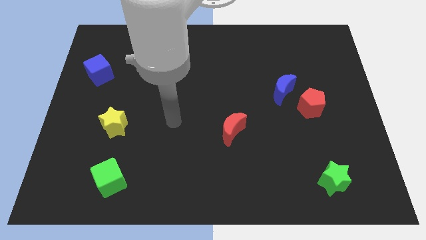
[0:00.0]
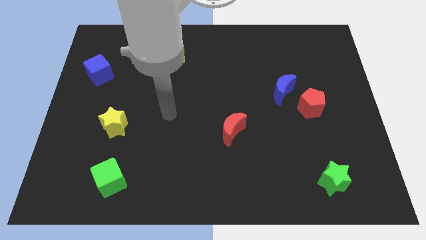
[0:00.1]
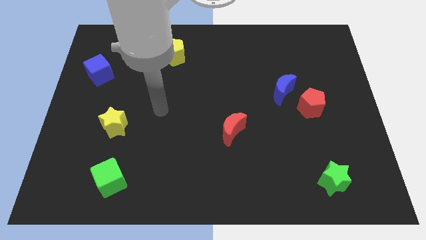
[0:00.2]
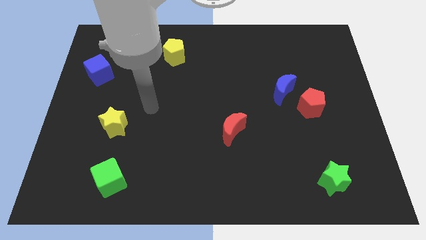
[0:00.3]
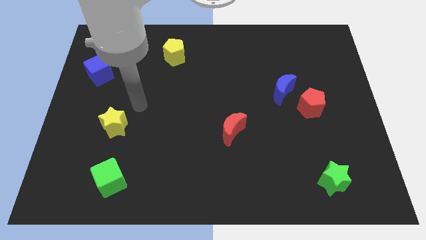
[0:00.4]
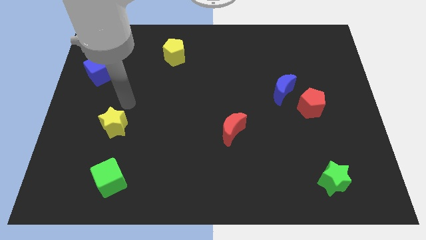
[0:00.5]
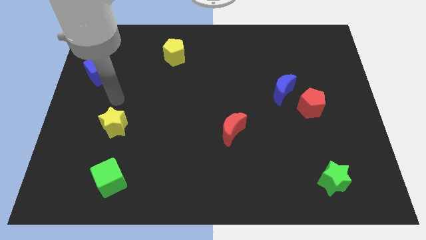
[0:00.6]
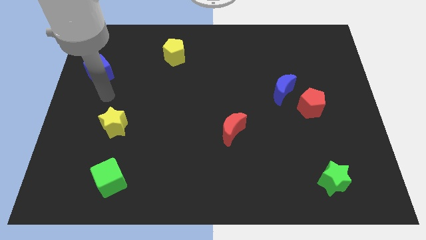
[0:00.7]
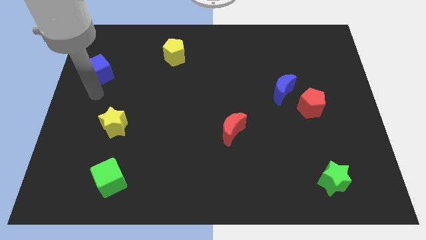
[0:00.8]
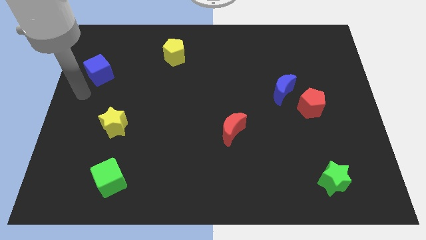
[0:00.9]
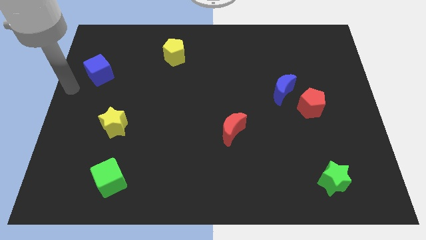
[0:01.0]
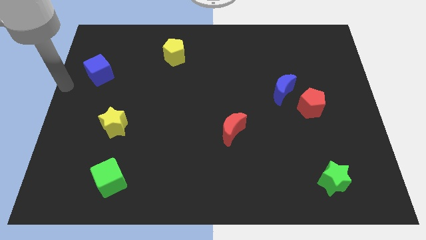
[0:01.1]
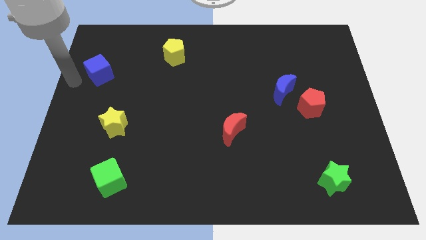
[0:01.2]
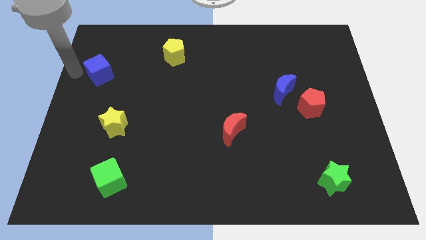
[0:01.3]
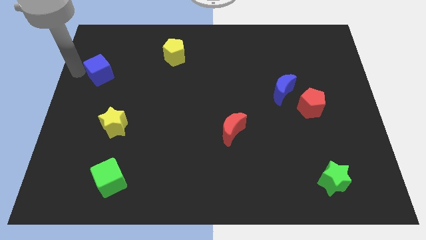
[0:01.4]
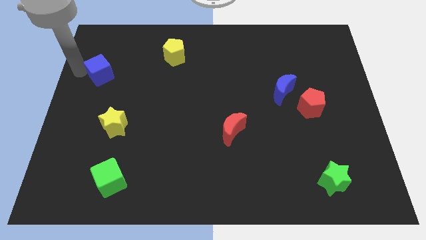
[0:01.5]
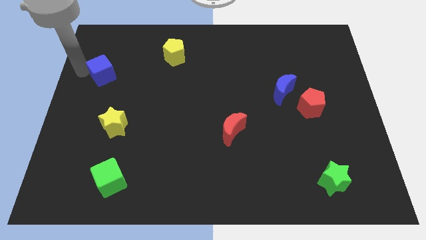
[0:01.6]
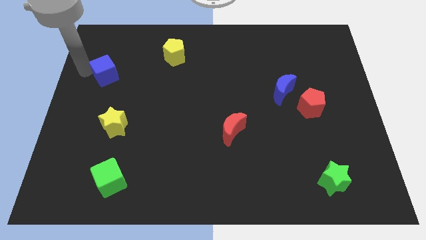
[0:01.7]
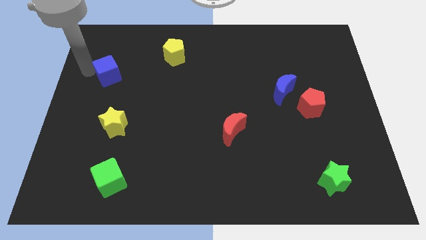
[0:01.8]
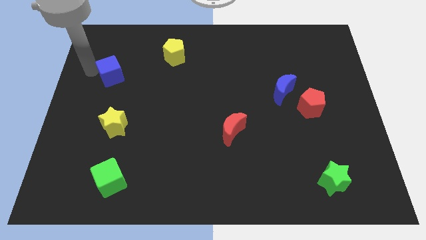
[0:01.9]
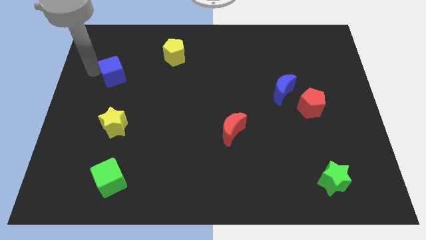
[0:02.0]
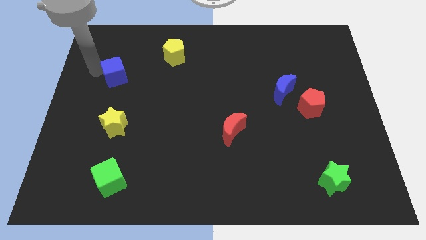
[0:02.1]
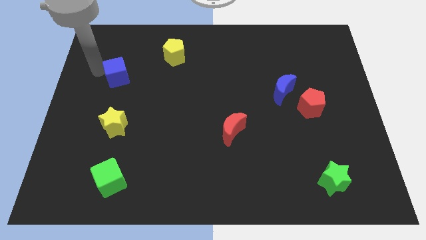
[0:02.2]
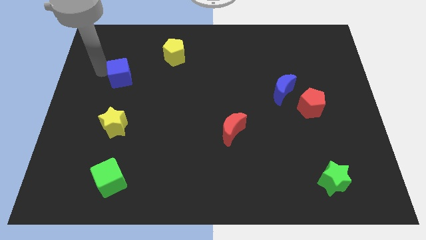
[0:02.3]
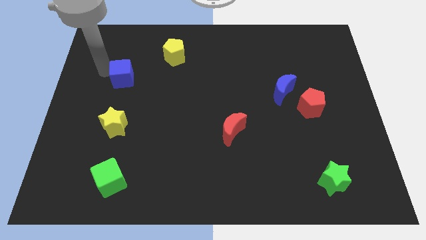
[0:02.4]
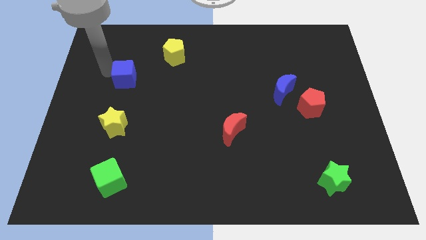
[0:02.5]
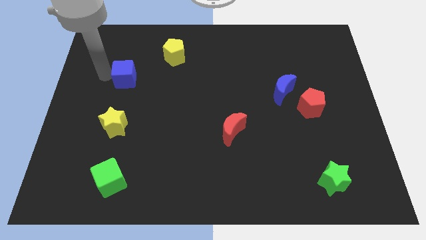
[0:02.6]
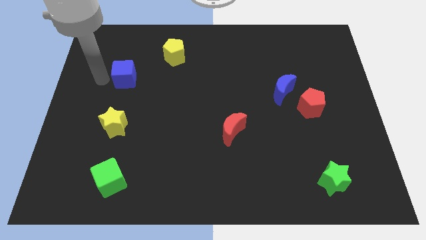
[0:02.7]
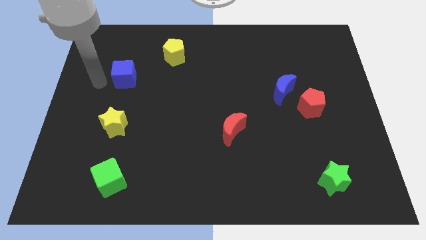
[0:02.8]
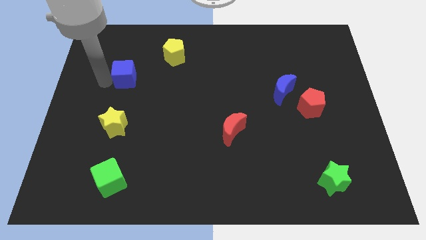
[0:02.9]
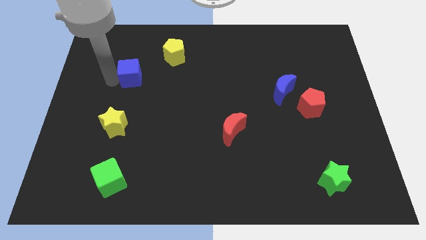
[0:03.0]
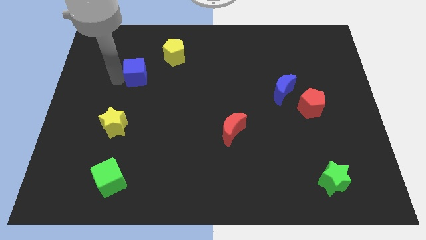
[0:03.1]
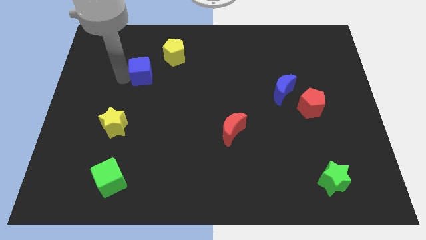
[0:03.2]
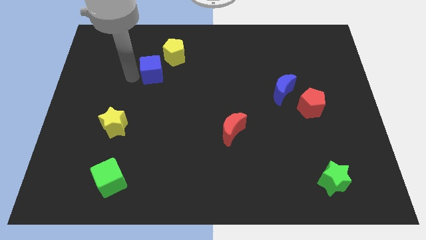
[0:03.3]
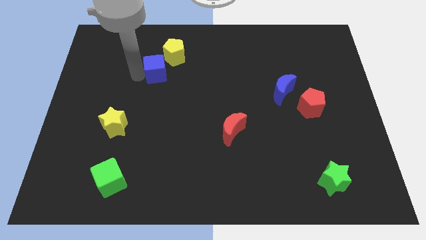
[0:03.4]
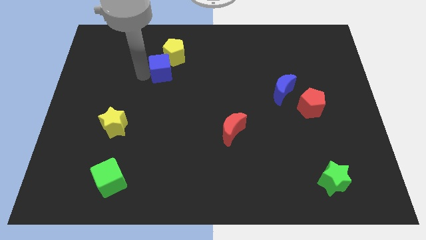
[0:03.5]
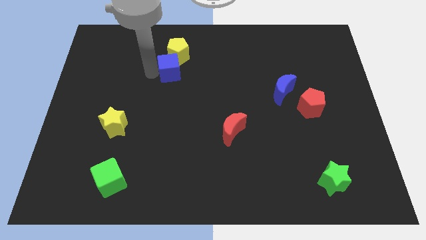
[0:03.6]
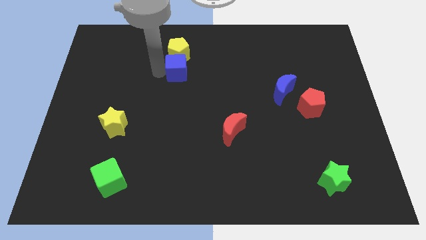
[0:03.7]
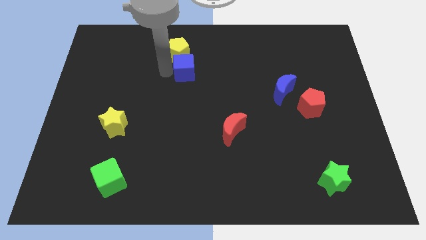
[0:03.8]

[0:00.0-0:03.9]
push the blue cube right

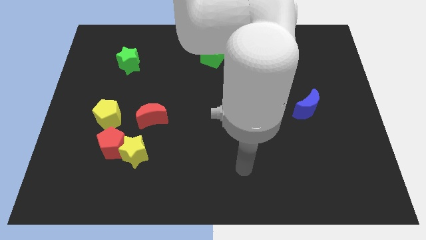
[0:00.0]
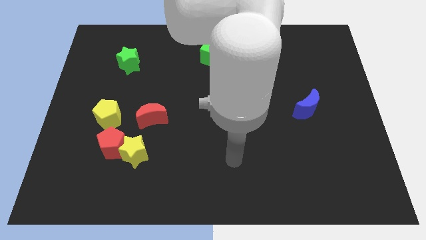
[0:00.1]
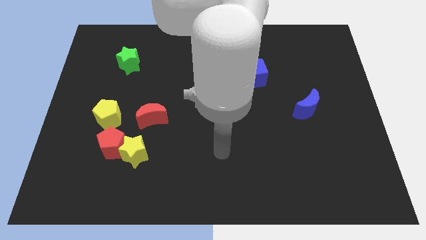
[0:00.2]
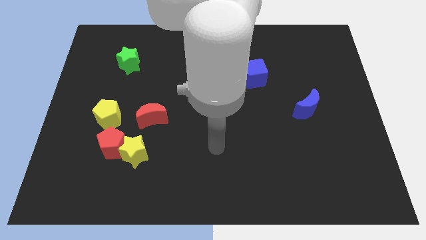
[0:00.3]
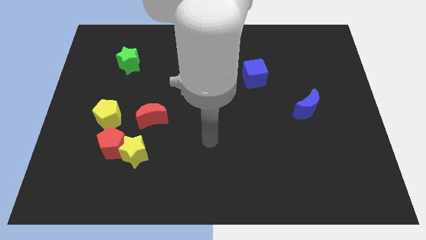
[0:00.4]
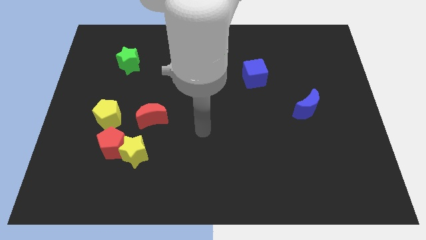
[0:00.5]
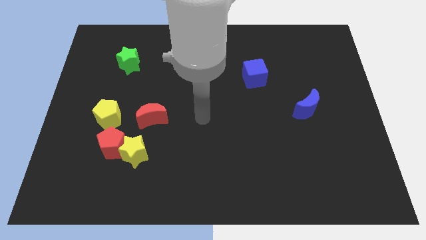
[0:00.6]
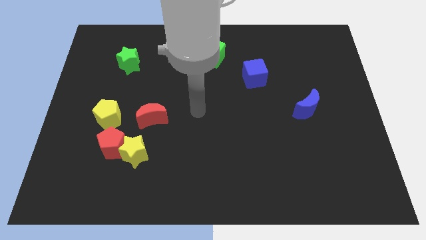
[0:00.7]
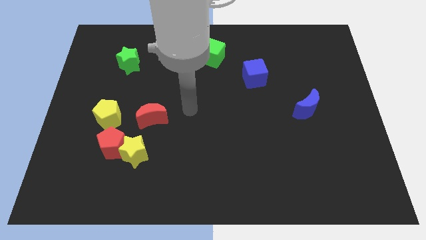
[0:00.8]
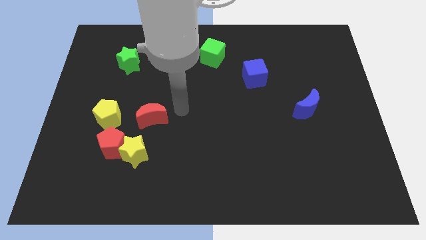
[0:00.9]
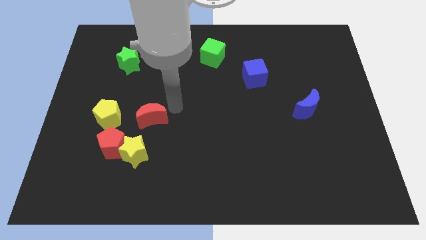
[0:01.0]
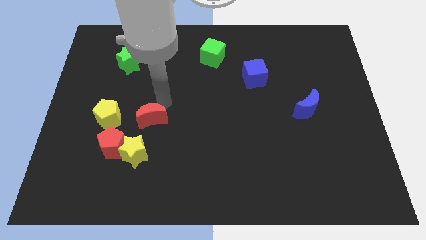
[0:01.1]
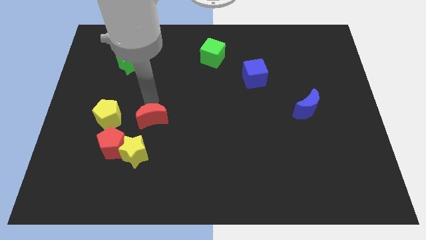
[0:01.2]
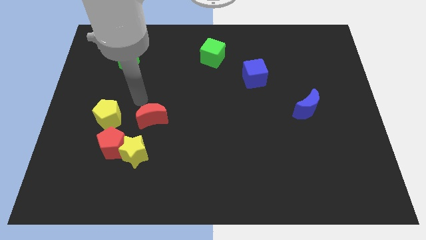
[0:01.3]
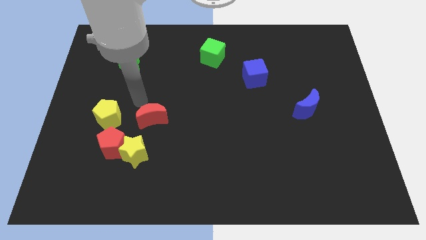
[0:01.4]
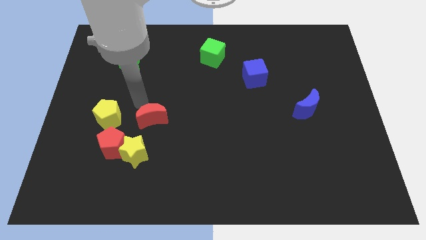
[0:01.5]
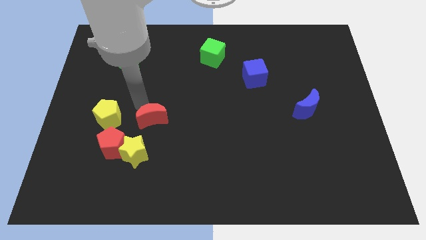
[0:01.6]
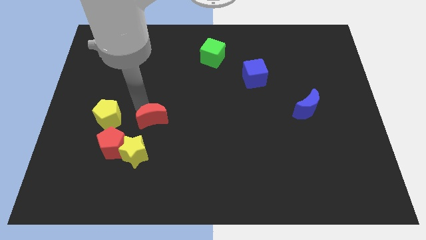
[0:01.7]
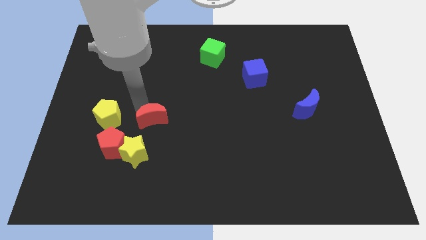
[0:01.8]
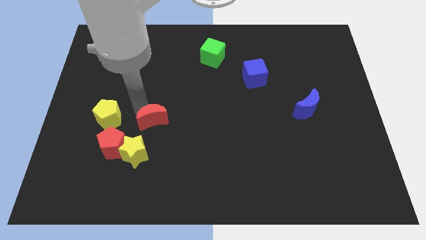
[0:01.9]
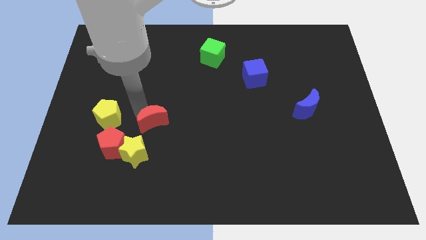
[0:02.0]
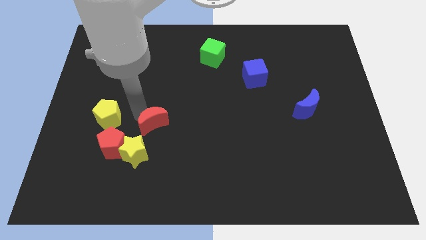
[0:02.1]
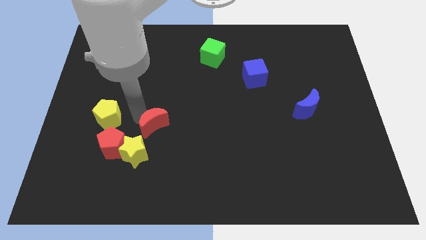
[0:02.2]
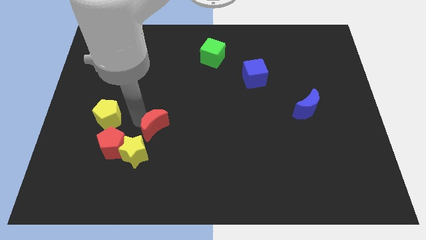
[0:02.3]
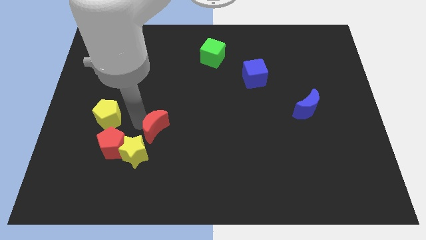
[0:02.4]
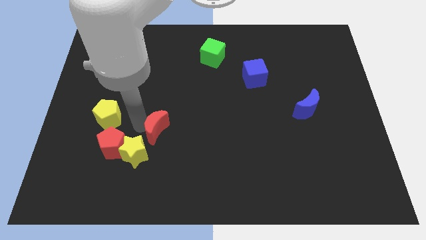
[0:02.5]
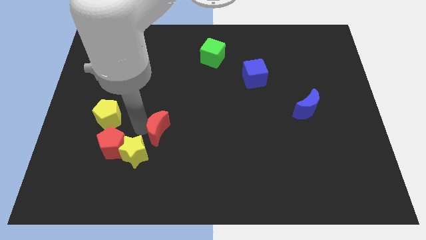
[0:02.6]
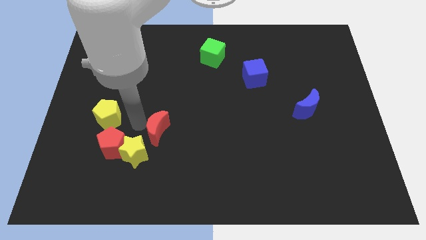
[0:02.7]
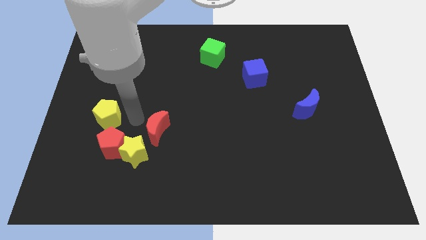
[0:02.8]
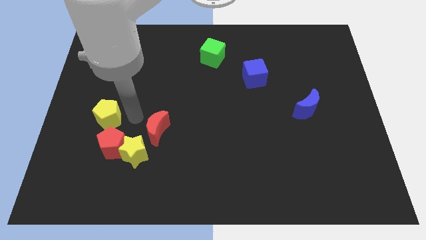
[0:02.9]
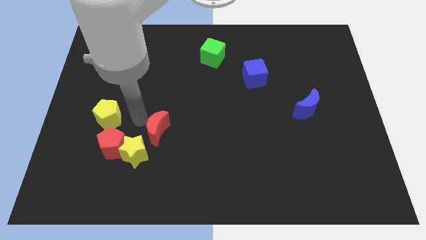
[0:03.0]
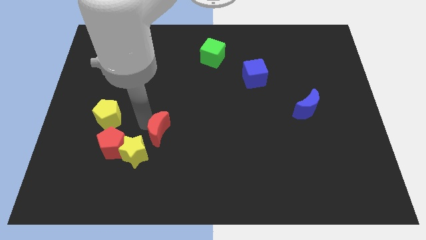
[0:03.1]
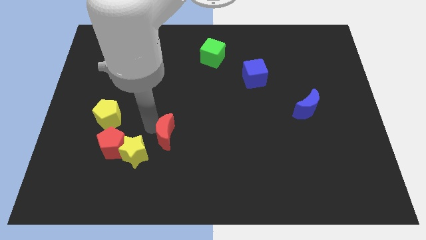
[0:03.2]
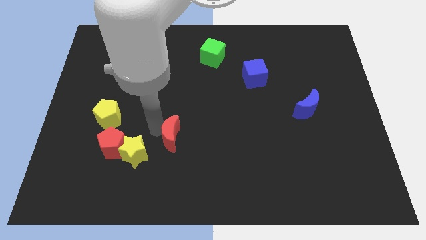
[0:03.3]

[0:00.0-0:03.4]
slide the red moon a bit diagonally down and right

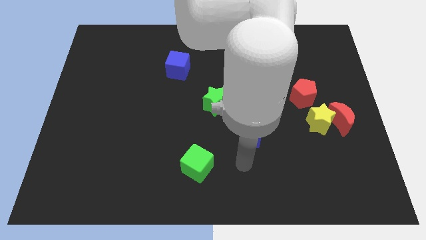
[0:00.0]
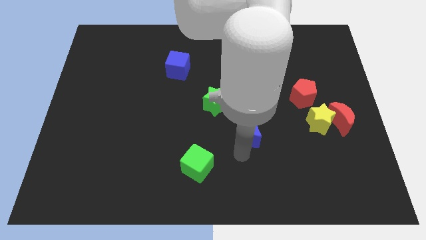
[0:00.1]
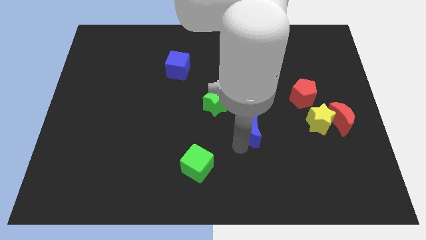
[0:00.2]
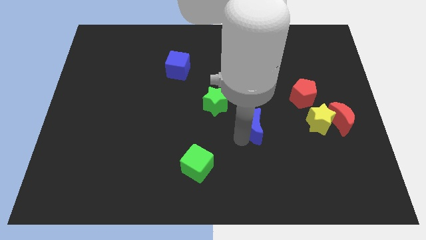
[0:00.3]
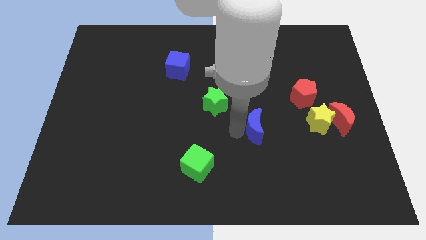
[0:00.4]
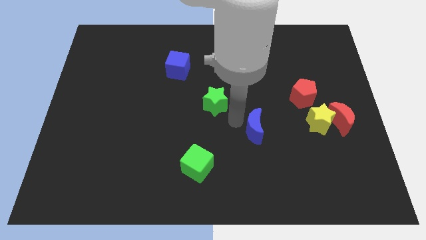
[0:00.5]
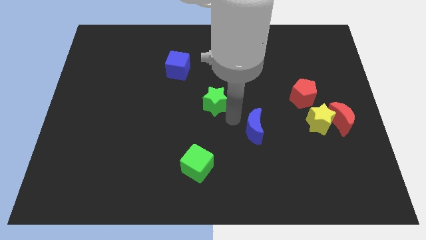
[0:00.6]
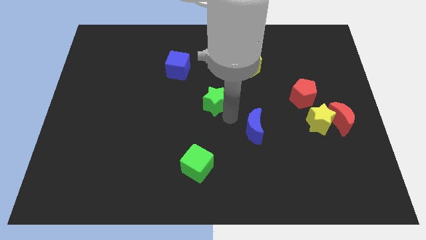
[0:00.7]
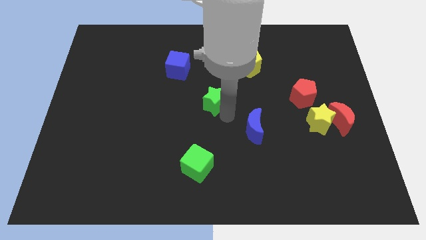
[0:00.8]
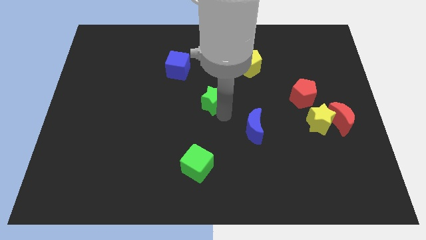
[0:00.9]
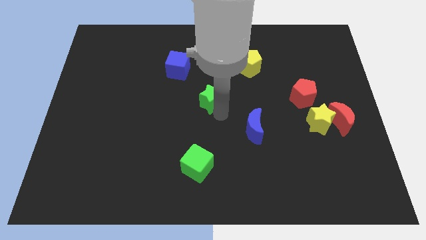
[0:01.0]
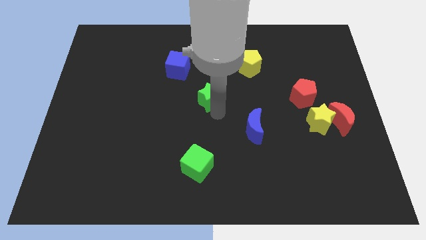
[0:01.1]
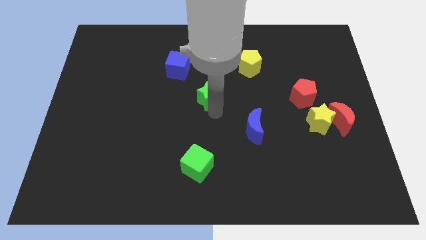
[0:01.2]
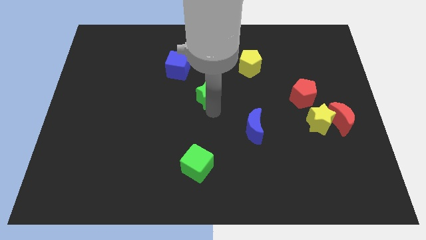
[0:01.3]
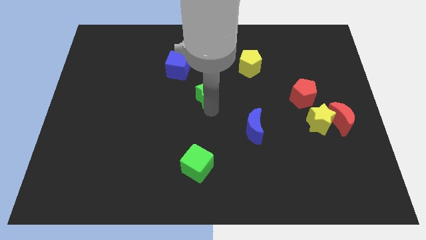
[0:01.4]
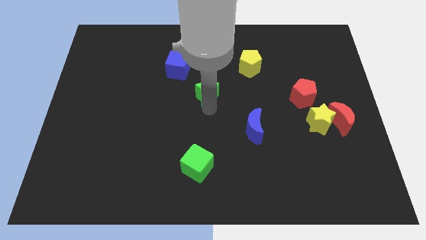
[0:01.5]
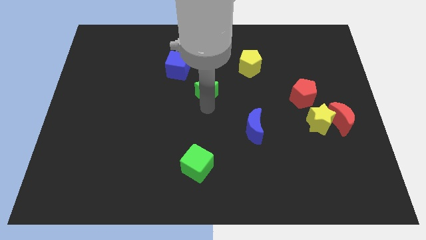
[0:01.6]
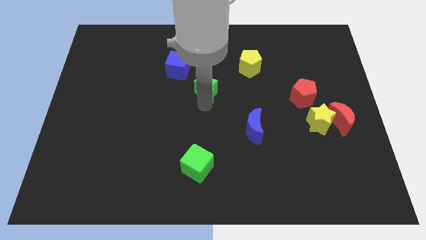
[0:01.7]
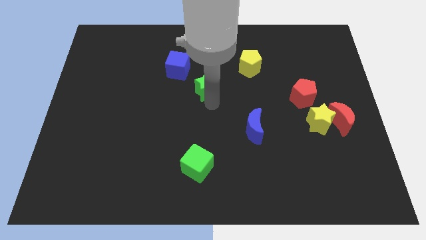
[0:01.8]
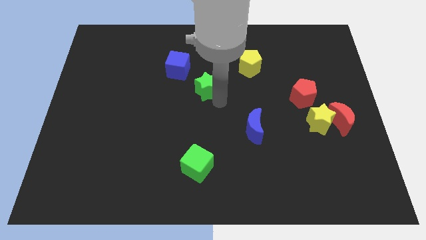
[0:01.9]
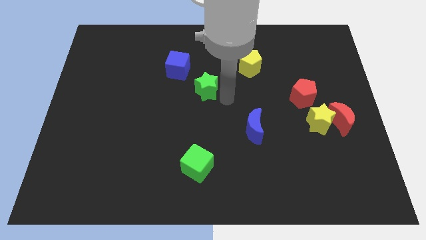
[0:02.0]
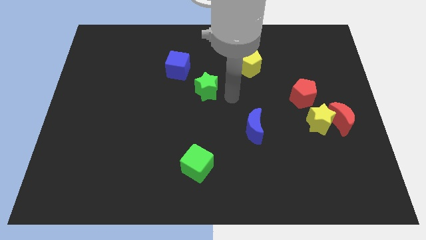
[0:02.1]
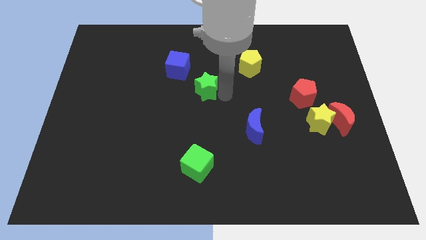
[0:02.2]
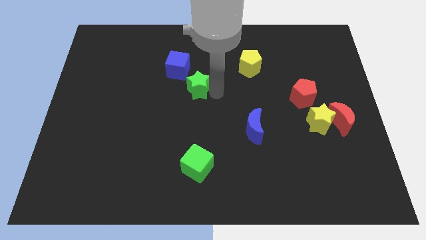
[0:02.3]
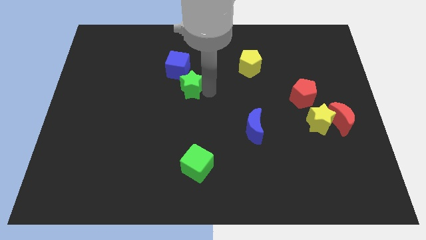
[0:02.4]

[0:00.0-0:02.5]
slightly slide the green star up and then to the left
